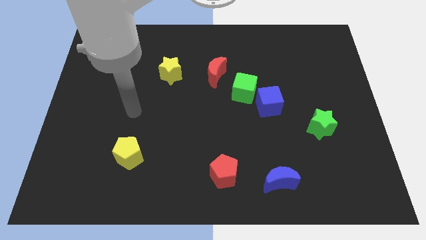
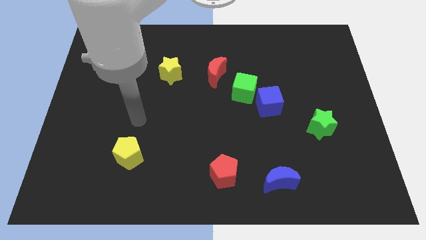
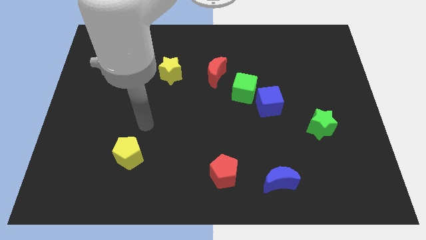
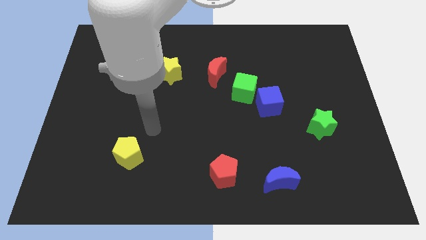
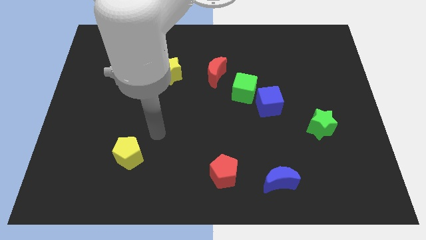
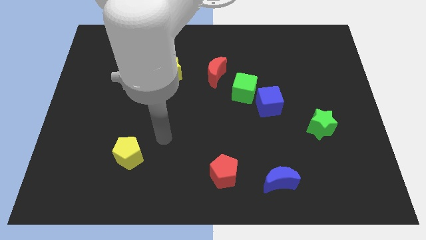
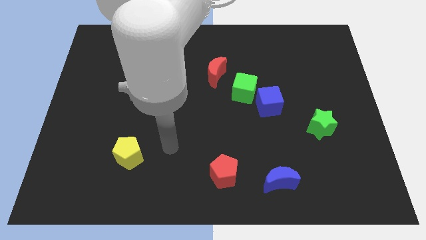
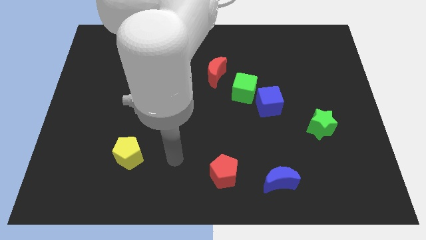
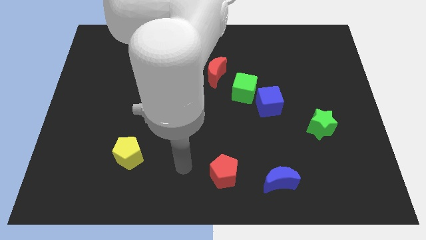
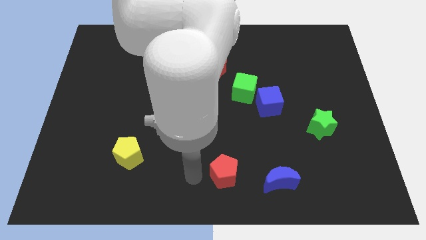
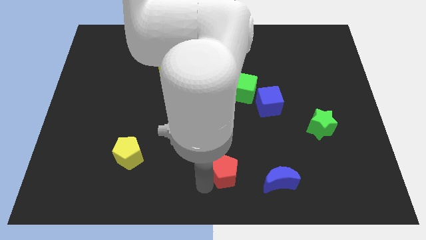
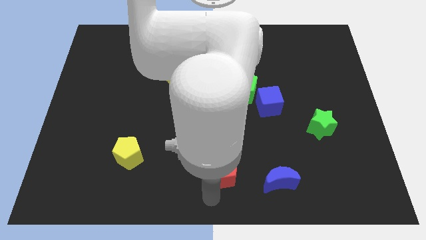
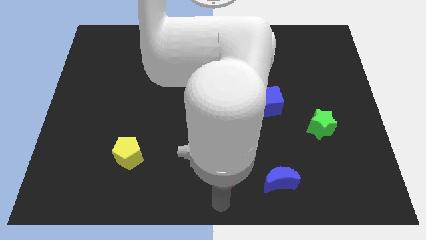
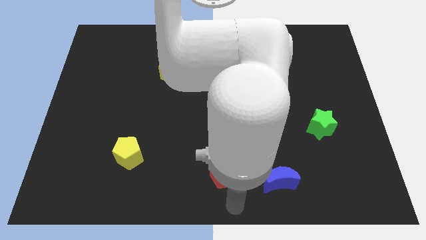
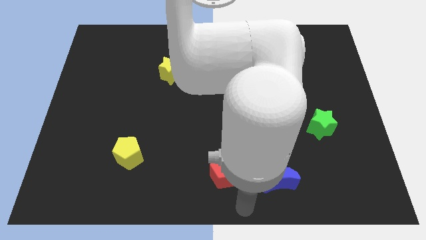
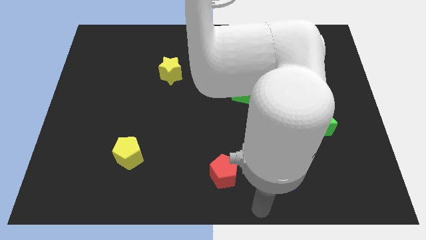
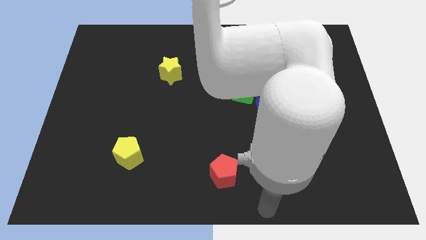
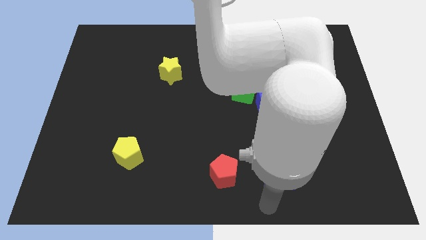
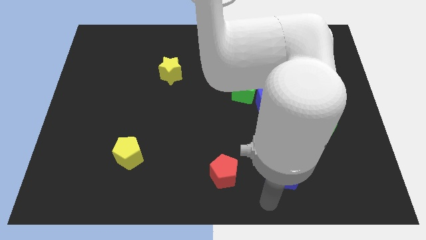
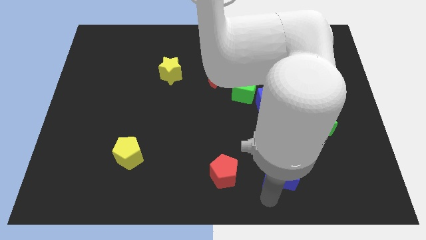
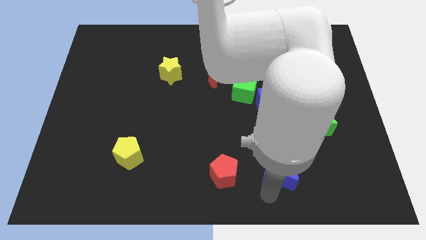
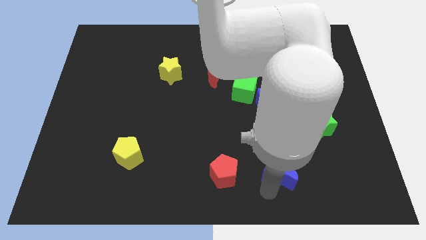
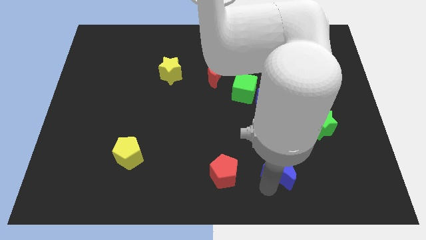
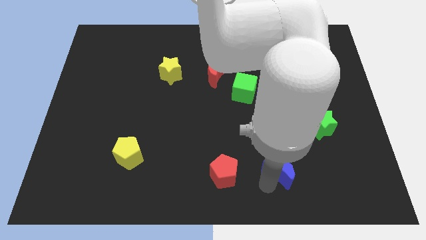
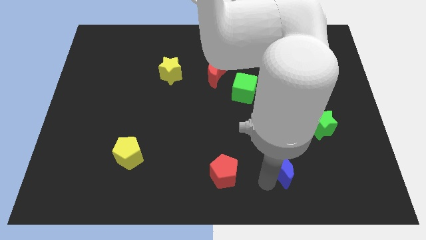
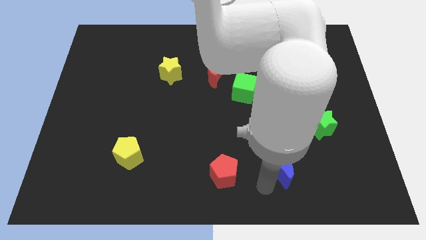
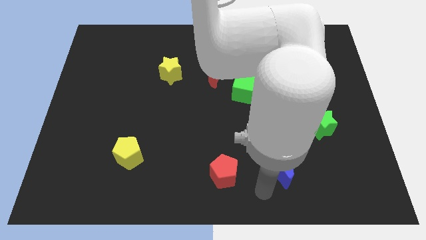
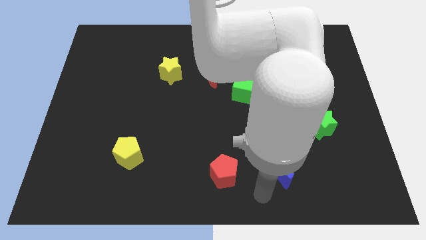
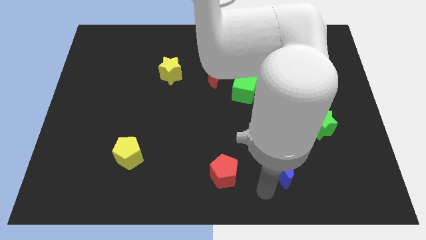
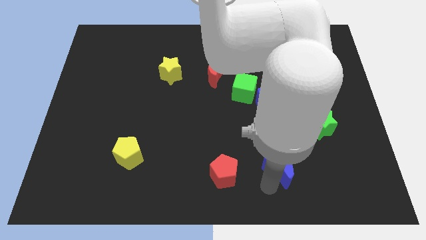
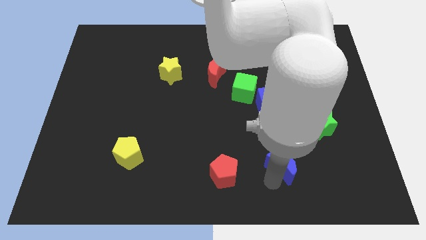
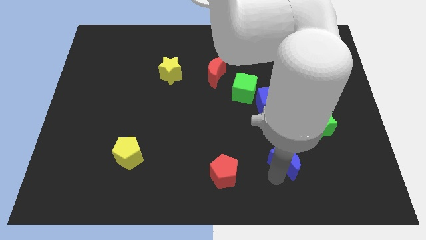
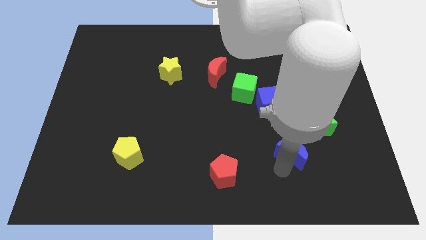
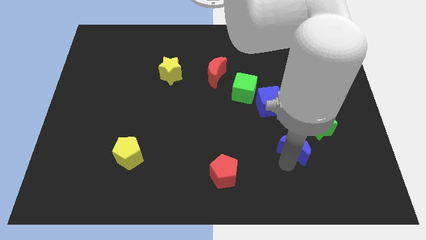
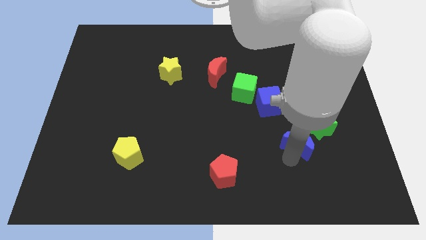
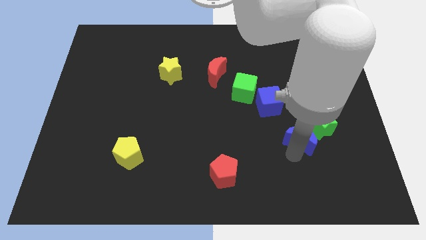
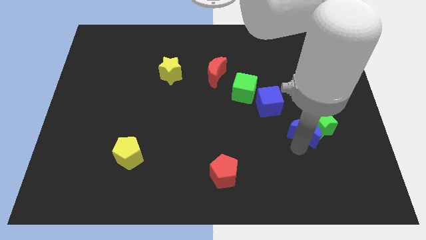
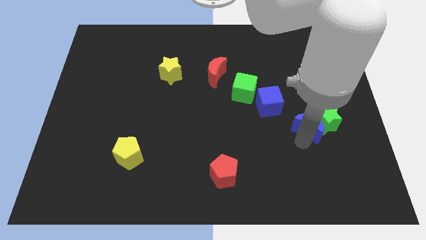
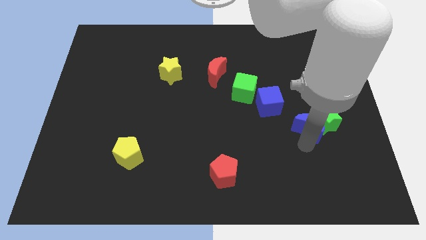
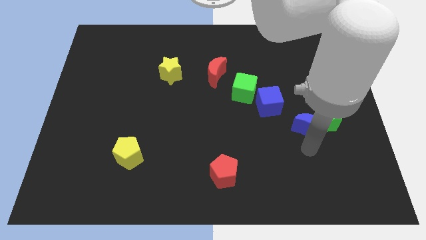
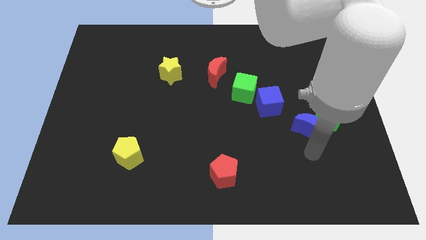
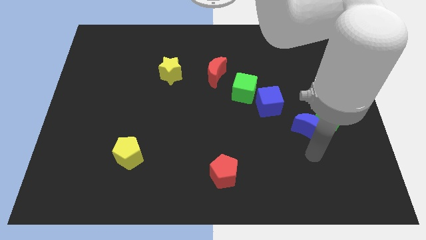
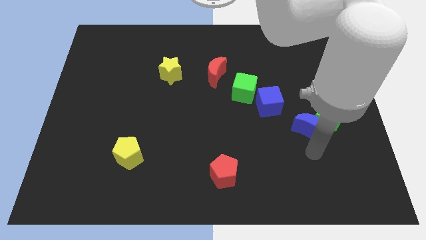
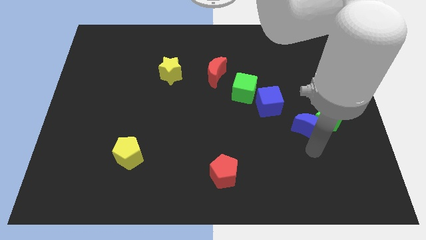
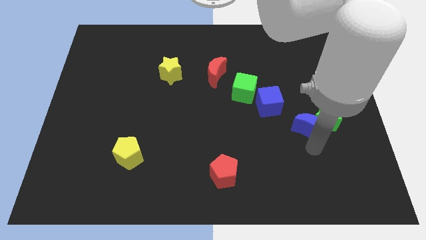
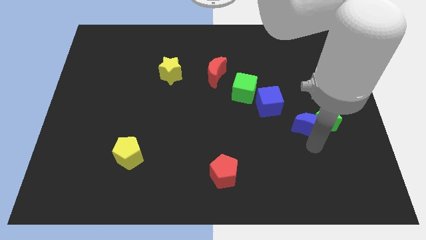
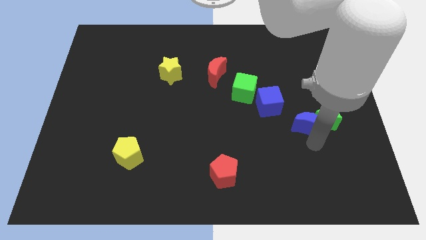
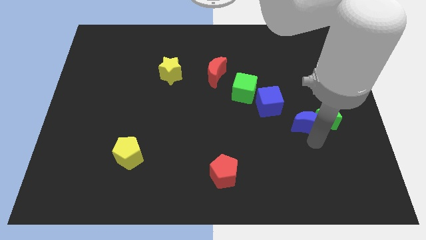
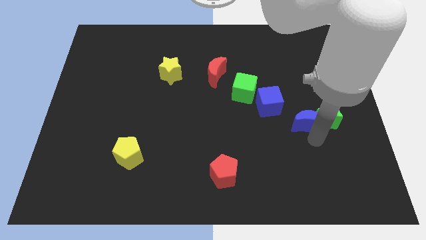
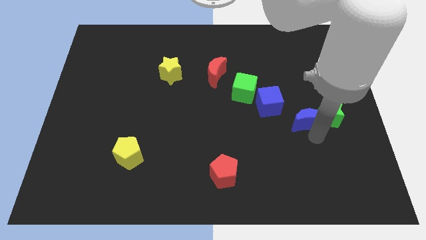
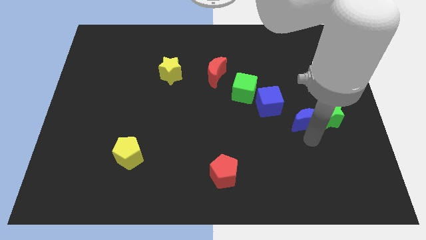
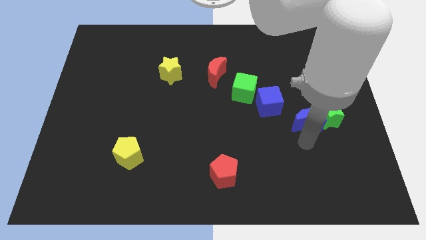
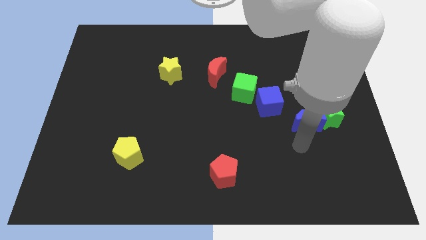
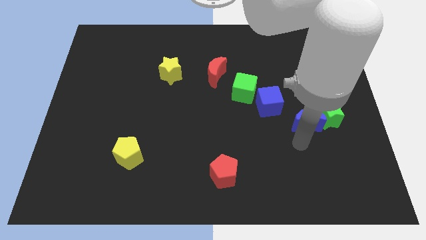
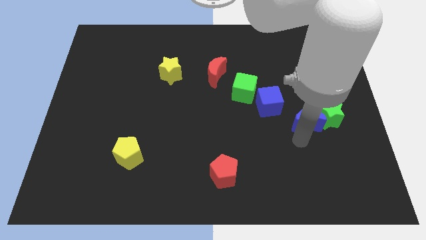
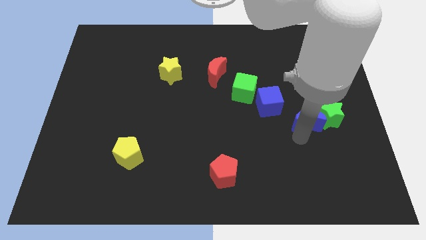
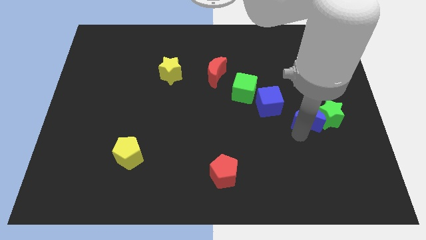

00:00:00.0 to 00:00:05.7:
push the blue moon to the right side of the blue cube

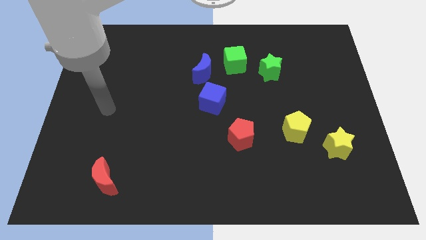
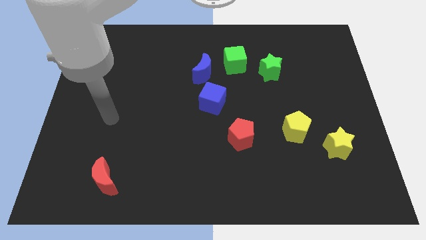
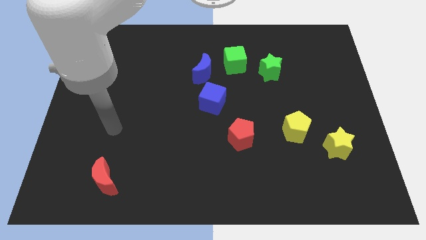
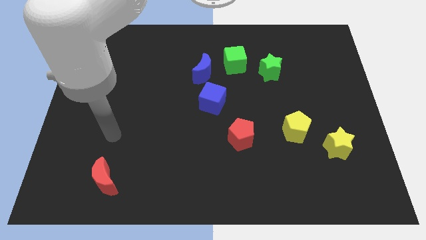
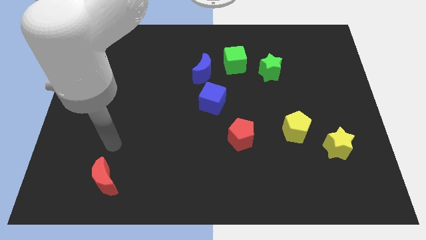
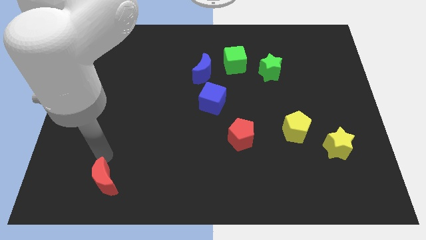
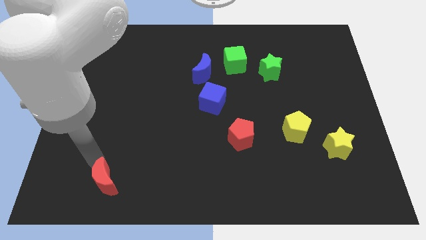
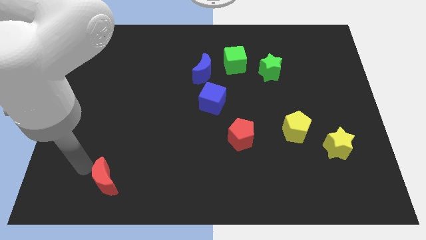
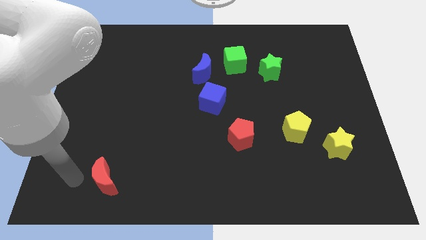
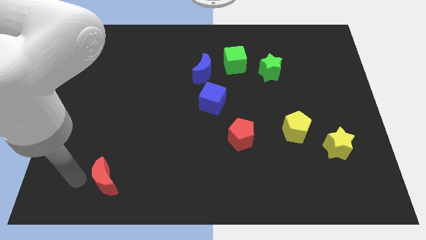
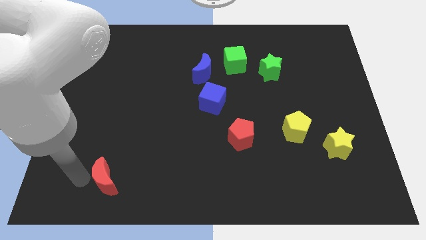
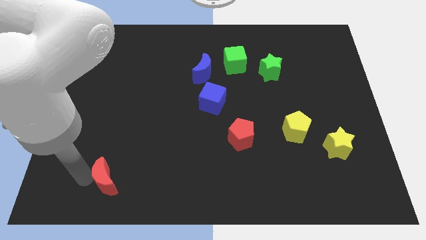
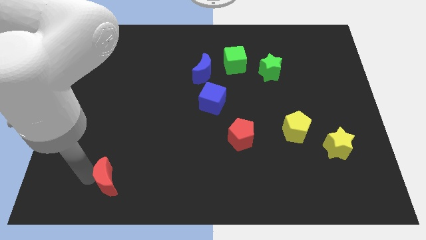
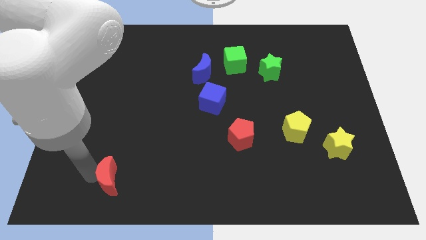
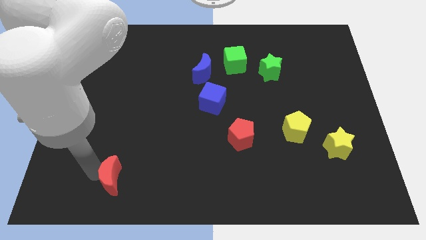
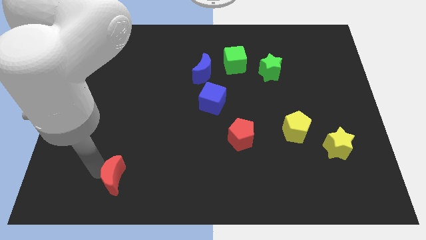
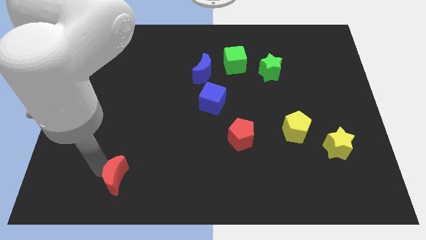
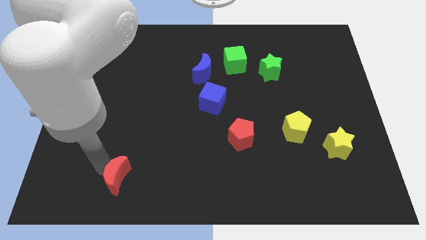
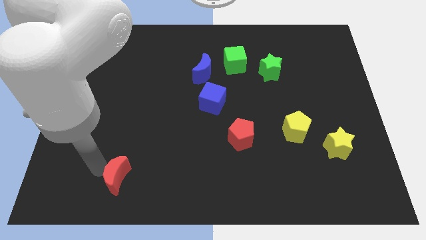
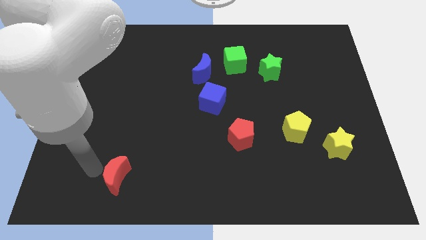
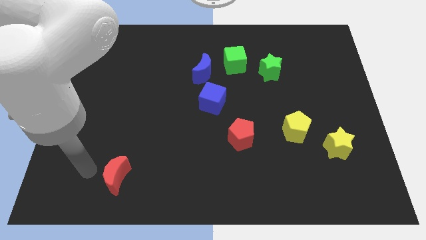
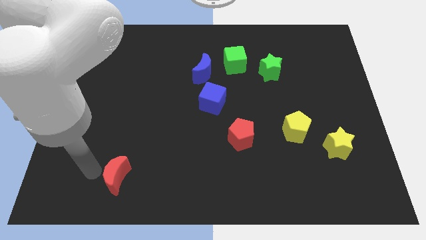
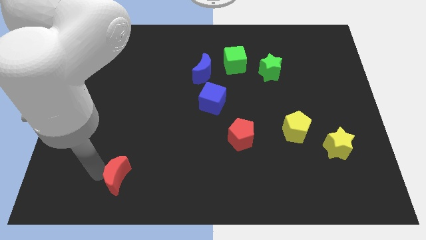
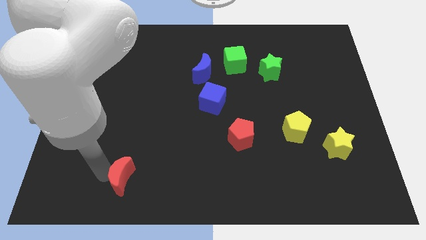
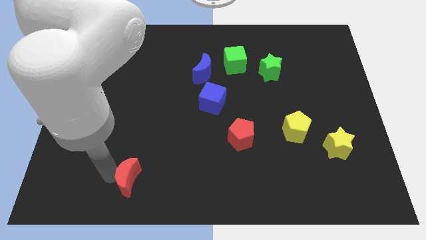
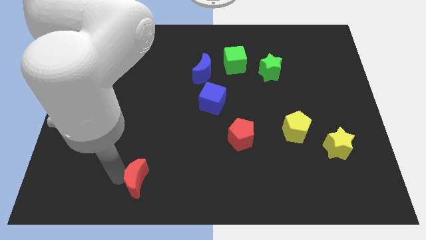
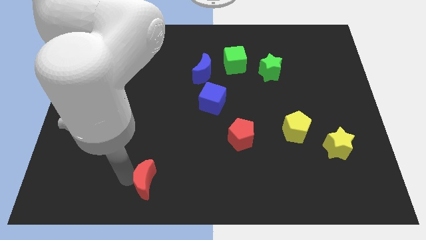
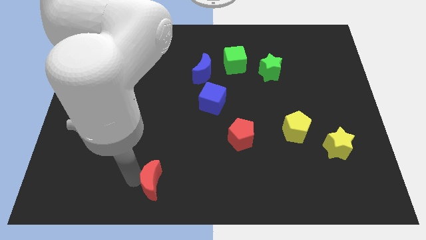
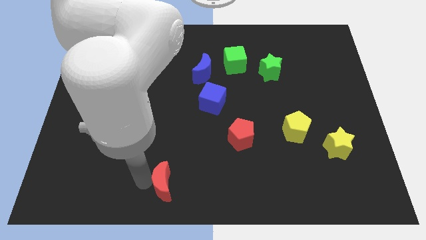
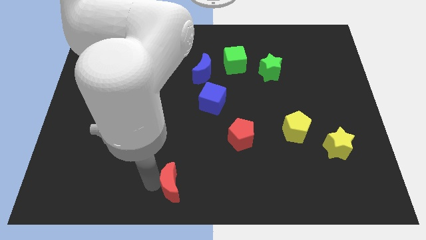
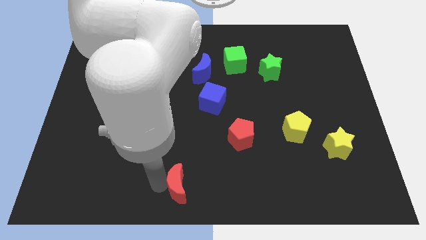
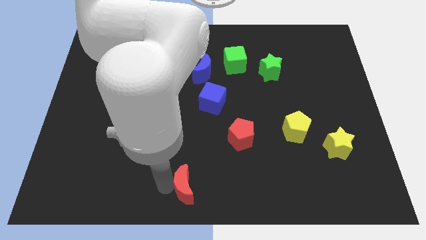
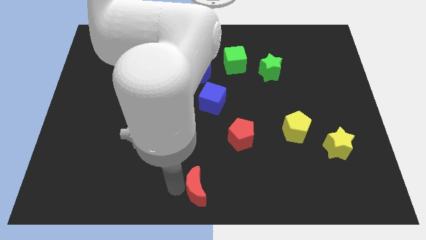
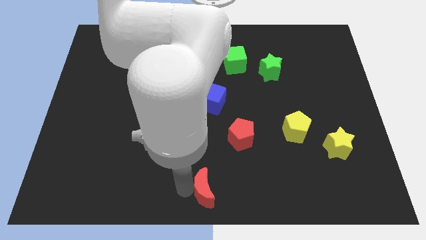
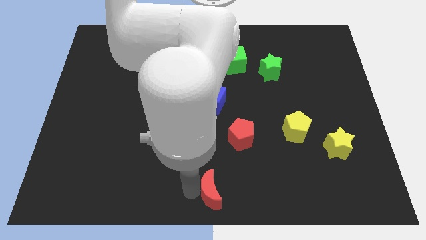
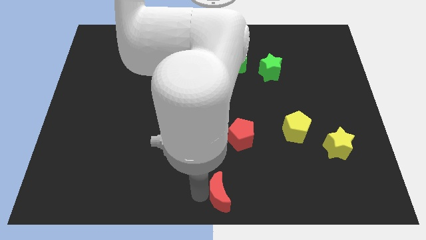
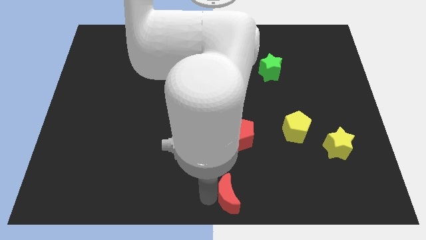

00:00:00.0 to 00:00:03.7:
push the red moon below the red pentagon
